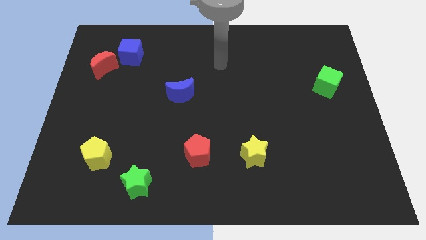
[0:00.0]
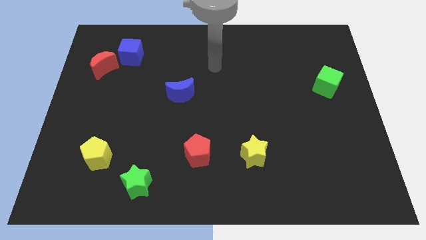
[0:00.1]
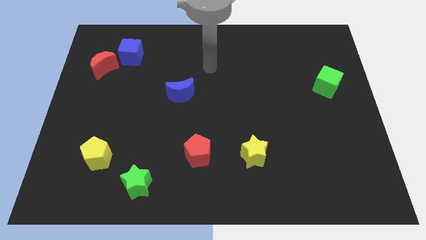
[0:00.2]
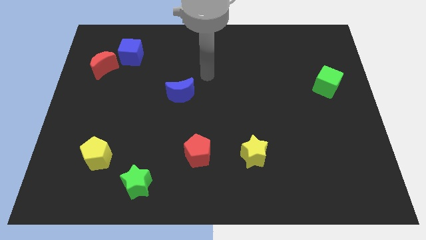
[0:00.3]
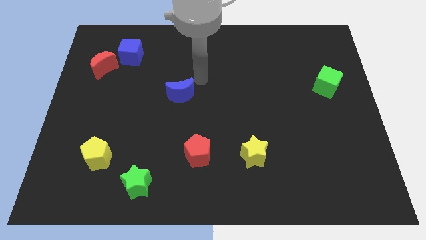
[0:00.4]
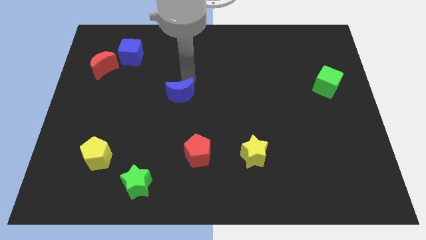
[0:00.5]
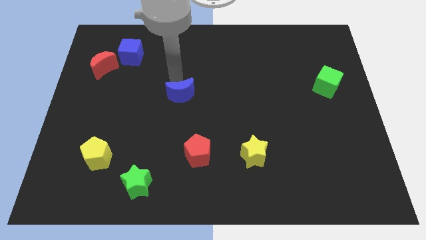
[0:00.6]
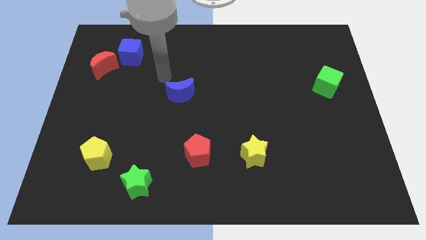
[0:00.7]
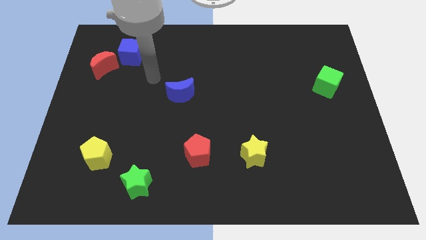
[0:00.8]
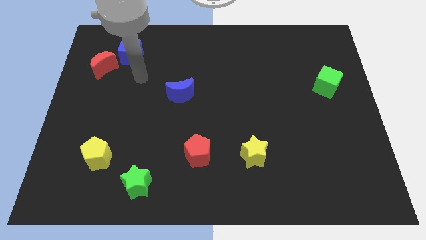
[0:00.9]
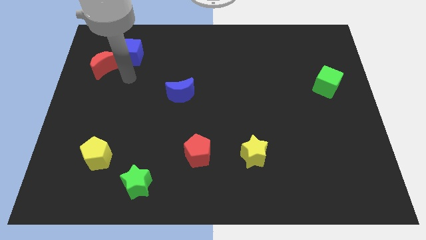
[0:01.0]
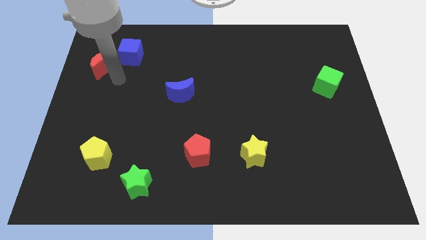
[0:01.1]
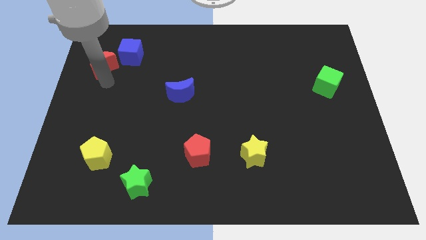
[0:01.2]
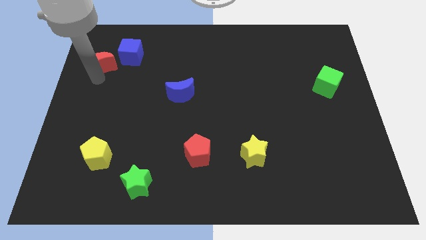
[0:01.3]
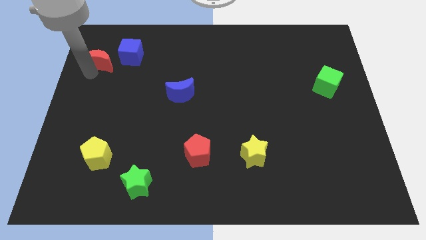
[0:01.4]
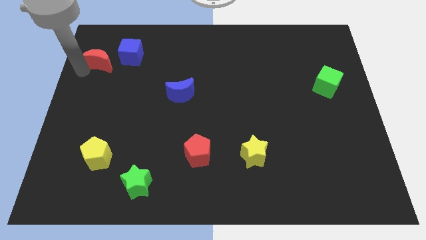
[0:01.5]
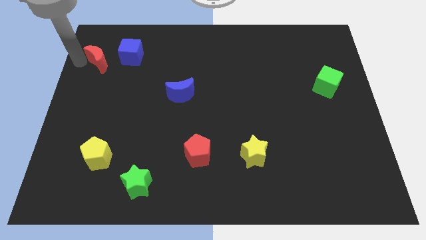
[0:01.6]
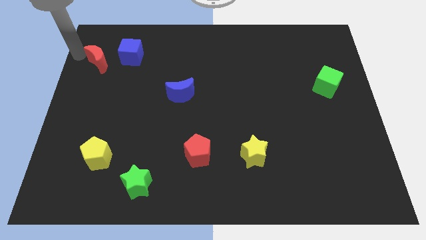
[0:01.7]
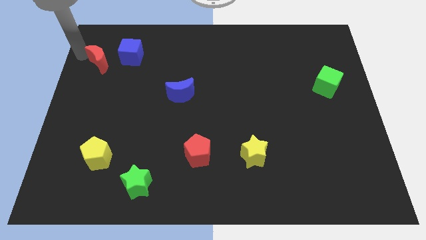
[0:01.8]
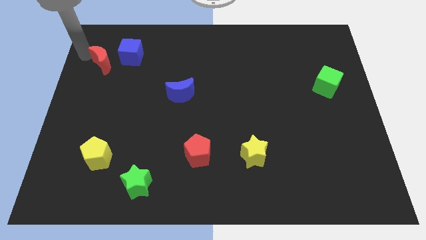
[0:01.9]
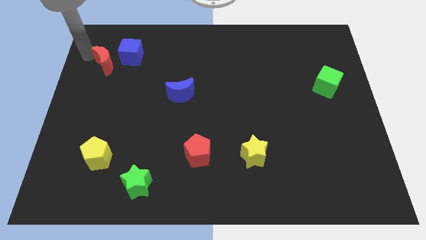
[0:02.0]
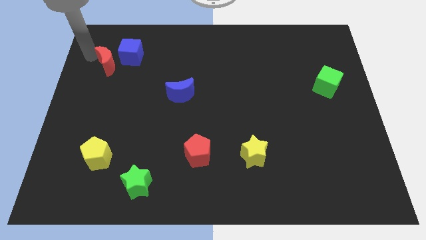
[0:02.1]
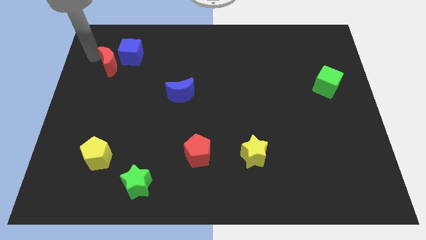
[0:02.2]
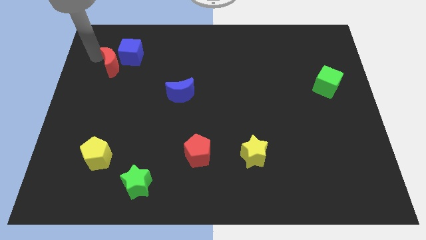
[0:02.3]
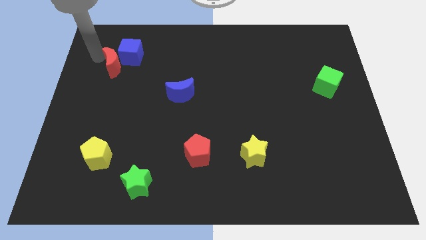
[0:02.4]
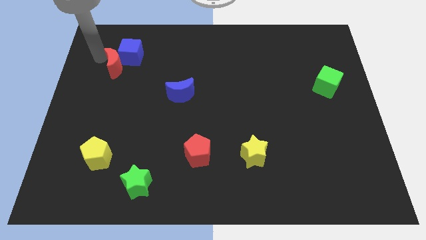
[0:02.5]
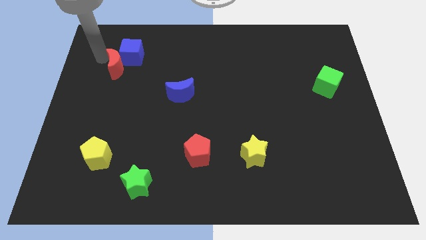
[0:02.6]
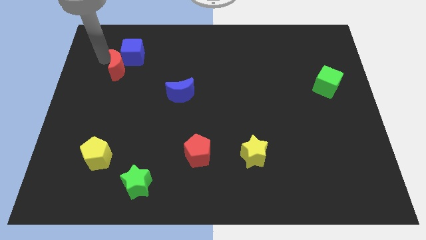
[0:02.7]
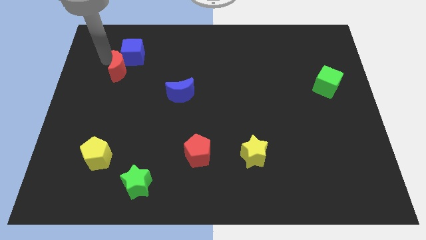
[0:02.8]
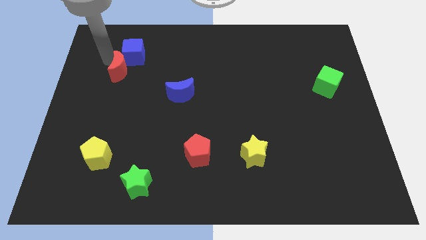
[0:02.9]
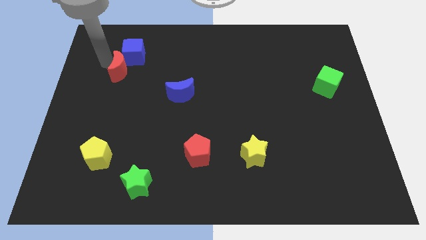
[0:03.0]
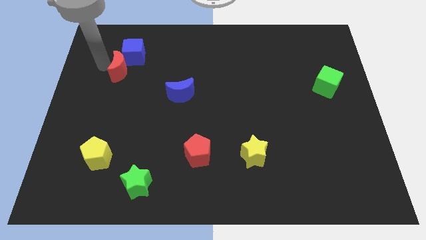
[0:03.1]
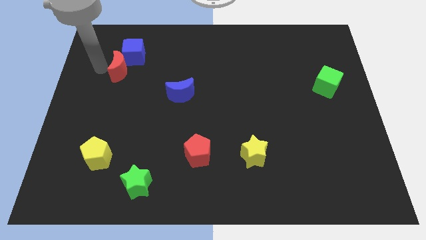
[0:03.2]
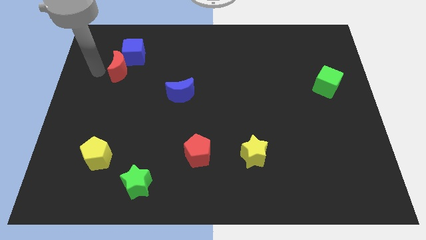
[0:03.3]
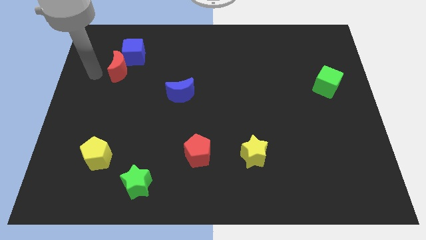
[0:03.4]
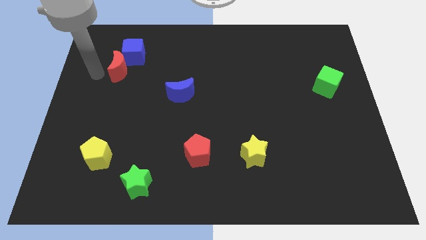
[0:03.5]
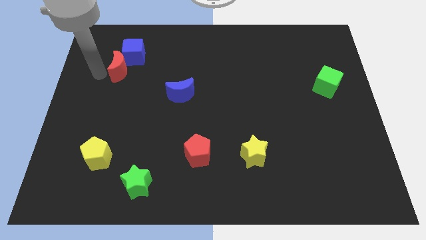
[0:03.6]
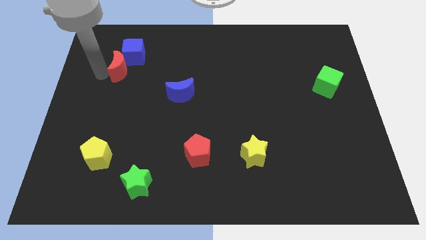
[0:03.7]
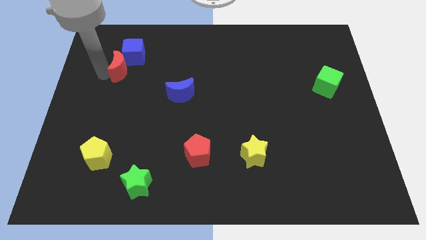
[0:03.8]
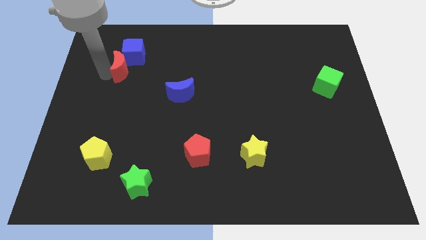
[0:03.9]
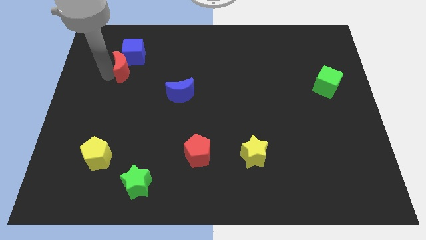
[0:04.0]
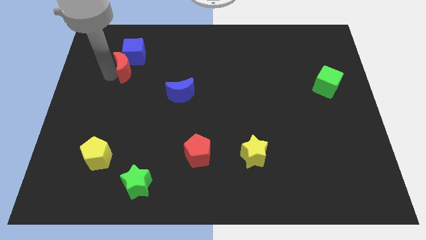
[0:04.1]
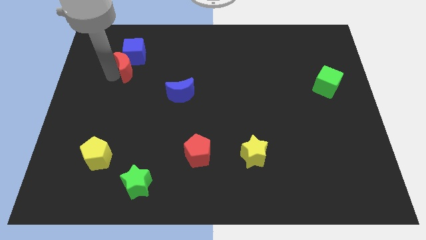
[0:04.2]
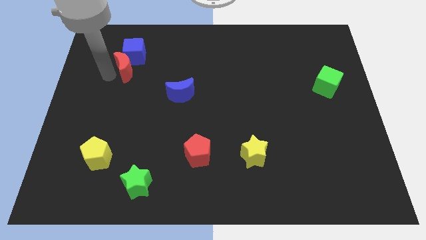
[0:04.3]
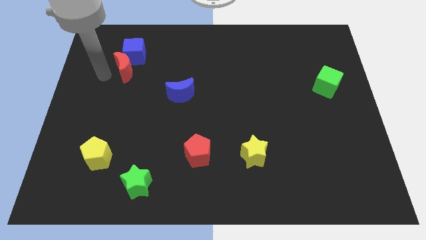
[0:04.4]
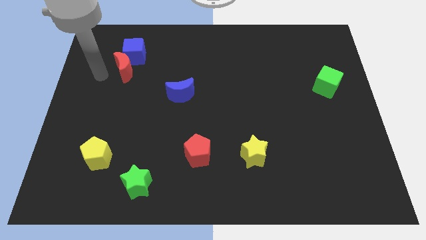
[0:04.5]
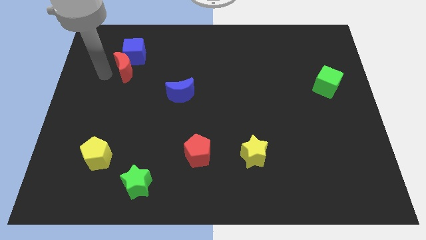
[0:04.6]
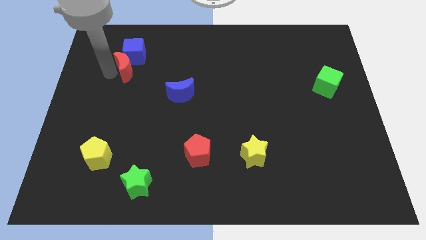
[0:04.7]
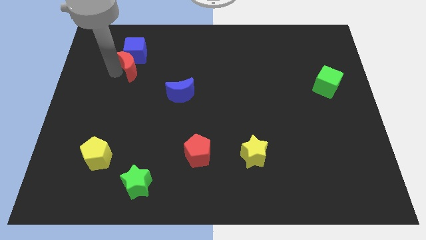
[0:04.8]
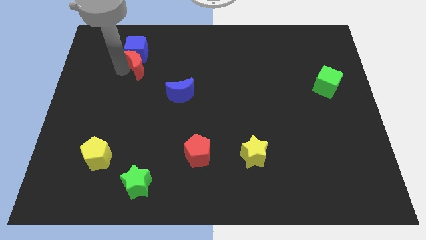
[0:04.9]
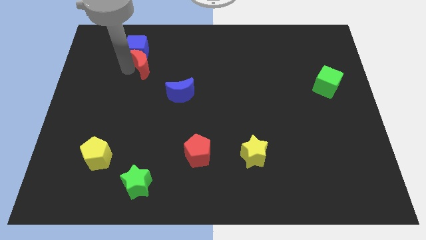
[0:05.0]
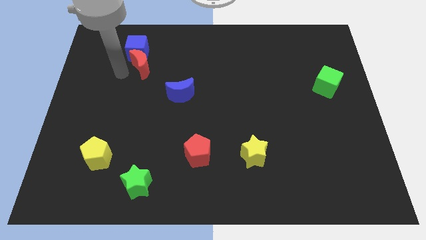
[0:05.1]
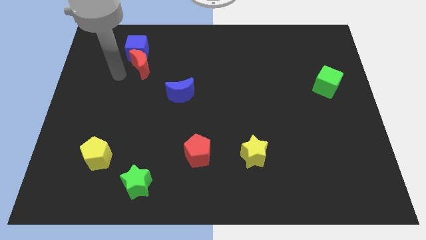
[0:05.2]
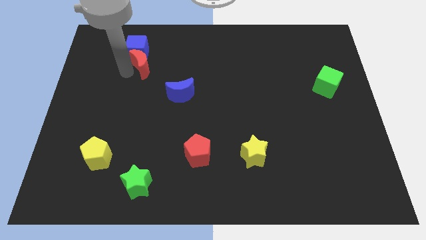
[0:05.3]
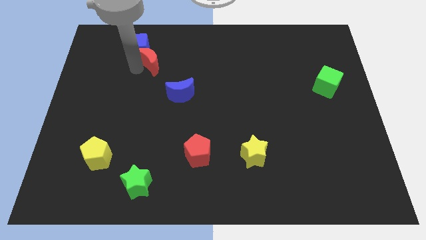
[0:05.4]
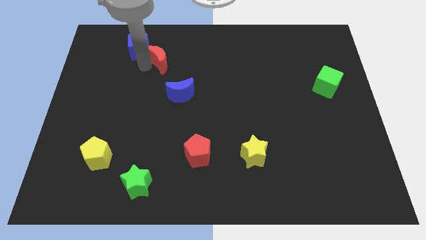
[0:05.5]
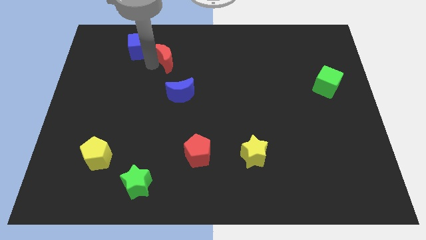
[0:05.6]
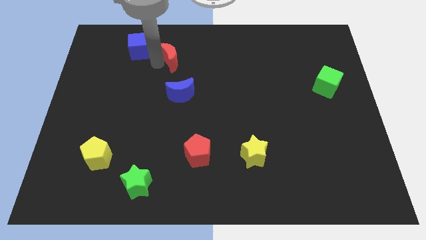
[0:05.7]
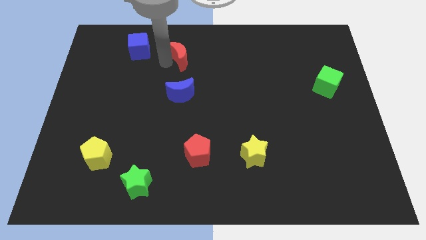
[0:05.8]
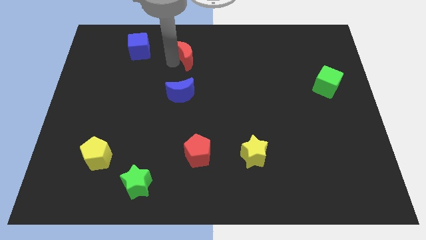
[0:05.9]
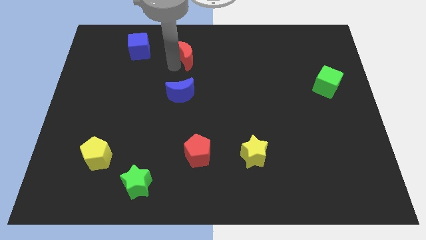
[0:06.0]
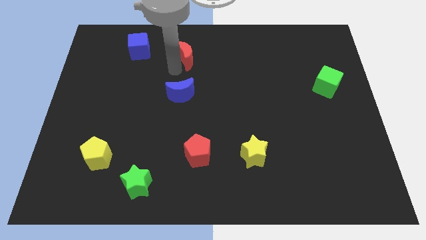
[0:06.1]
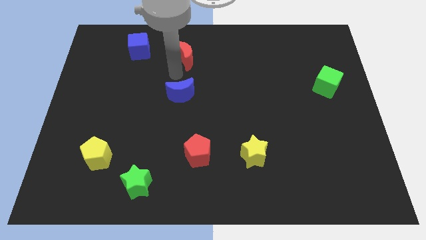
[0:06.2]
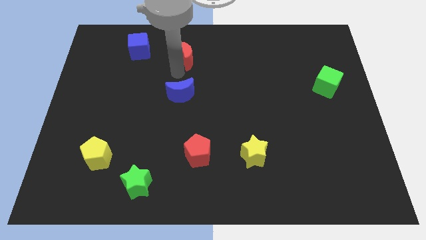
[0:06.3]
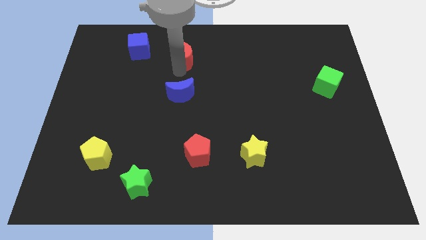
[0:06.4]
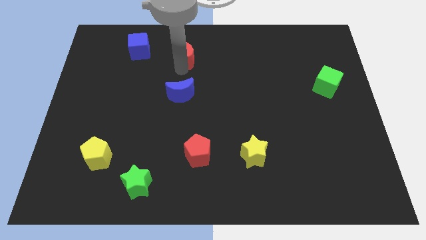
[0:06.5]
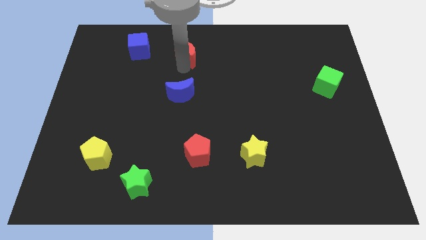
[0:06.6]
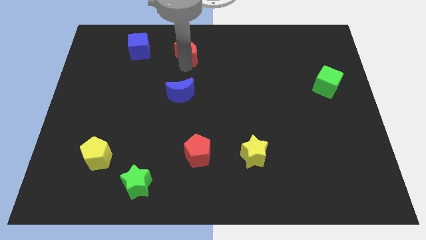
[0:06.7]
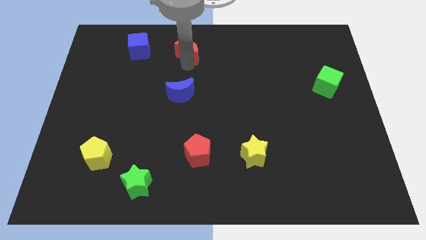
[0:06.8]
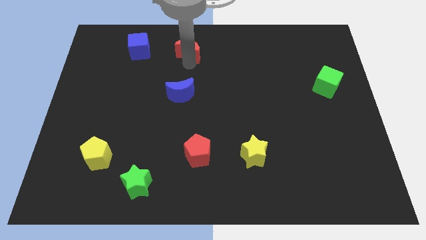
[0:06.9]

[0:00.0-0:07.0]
slide the red moon to the top
